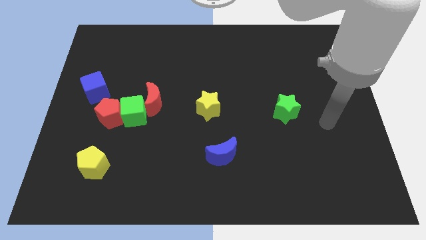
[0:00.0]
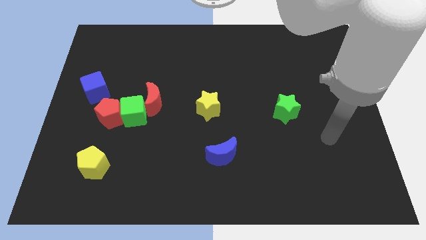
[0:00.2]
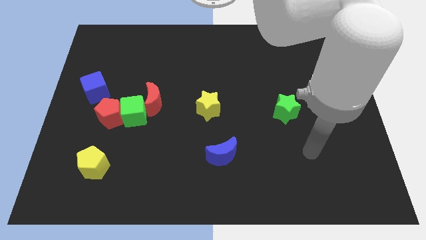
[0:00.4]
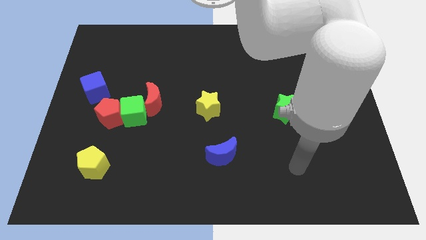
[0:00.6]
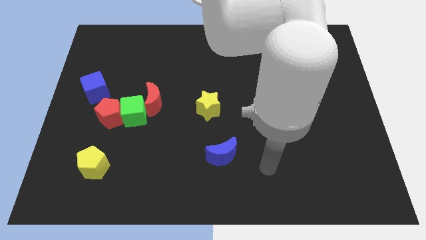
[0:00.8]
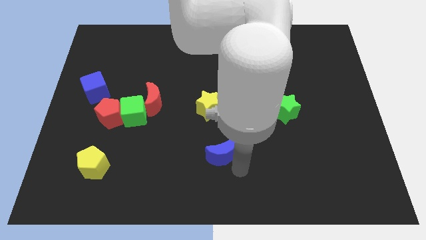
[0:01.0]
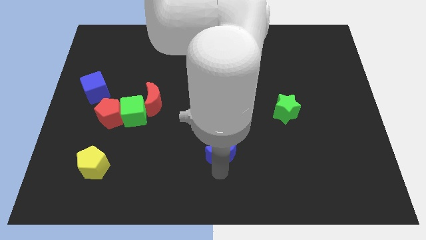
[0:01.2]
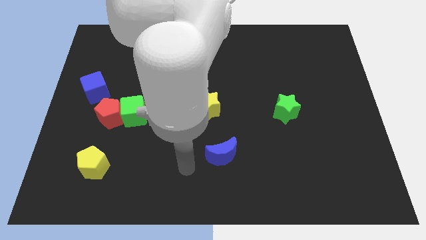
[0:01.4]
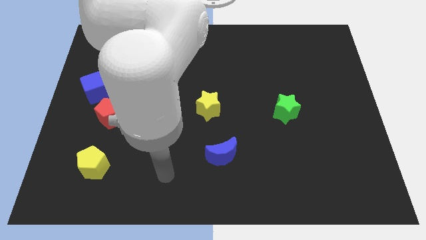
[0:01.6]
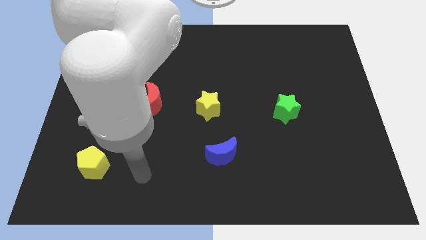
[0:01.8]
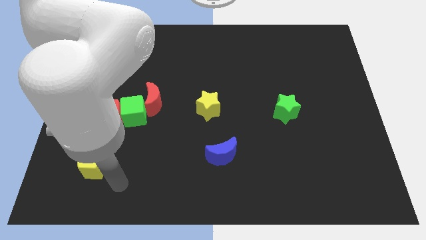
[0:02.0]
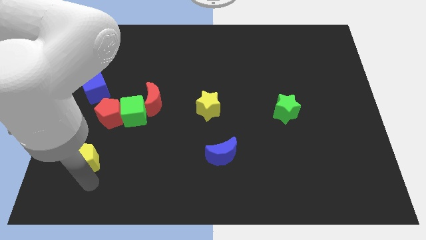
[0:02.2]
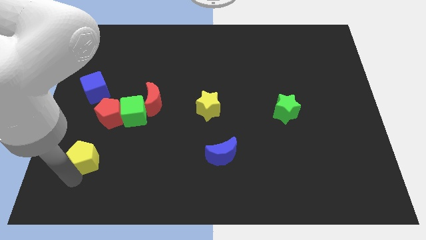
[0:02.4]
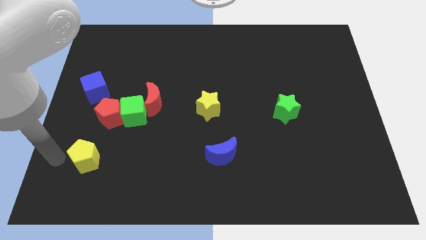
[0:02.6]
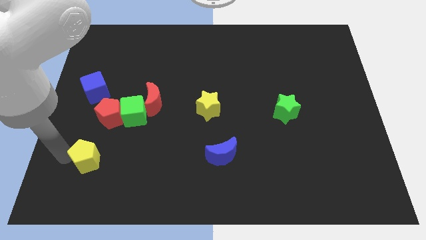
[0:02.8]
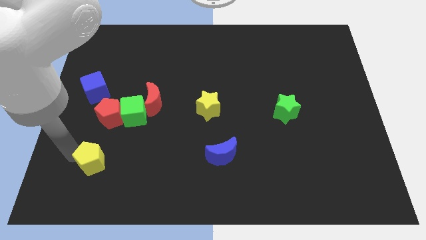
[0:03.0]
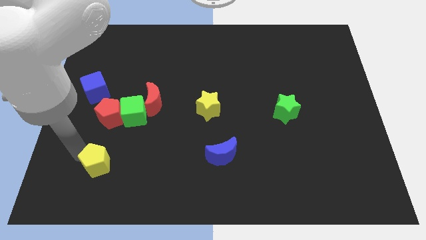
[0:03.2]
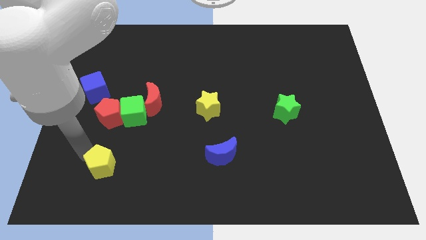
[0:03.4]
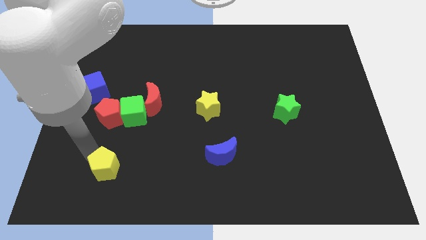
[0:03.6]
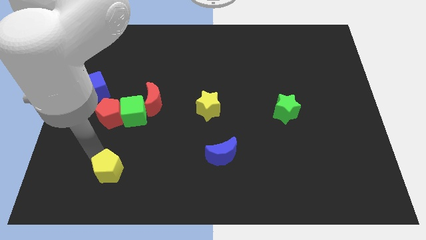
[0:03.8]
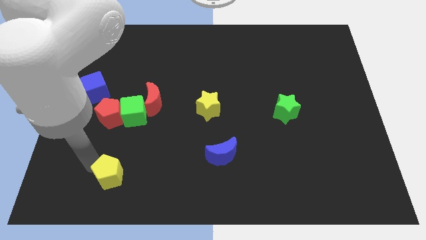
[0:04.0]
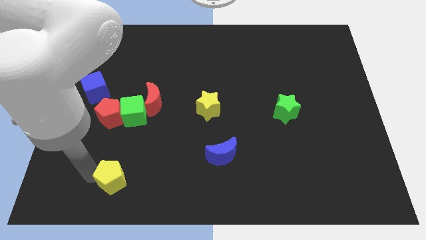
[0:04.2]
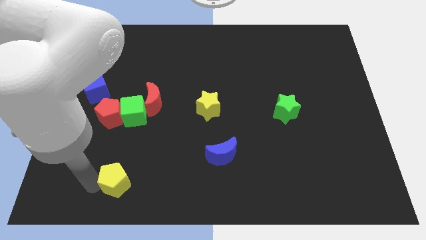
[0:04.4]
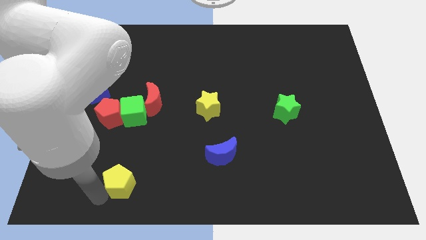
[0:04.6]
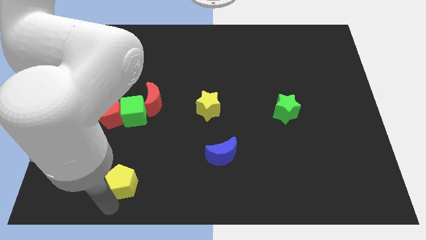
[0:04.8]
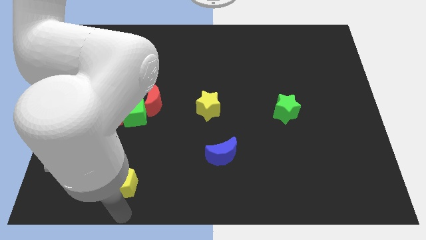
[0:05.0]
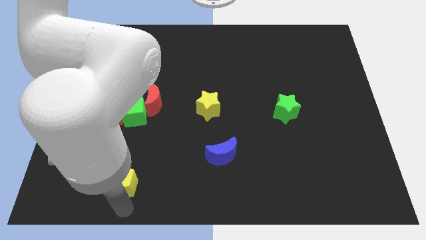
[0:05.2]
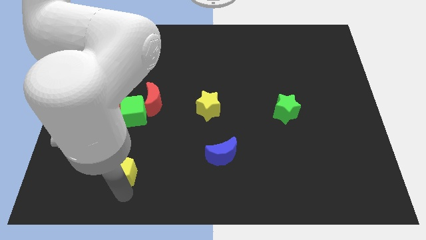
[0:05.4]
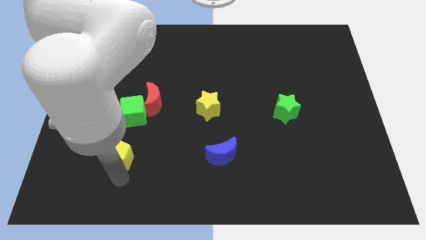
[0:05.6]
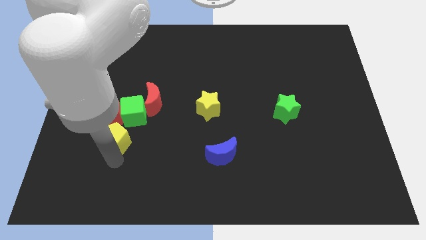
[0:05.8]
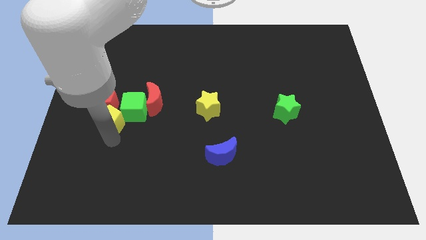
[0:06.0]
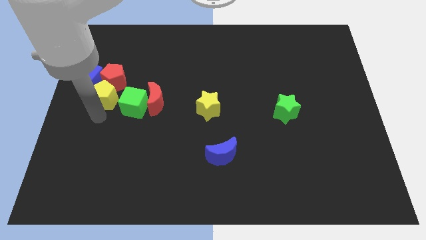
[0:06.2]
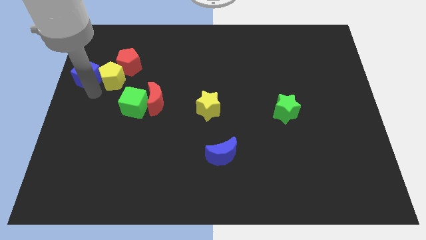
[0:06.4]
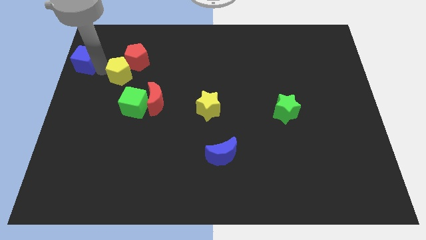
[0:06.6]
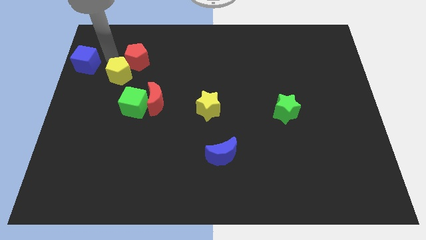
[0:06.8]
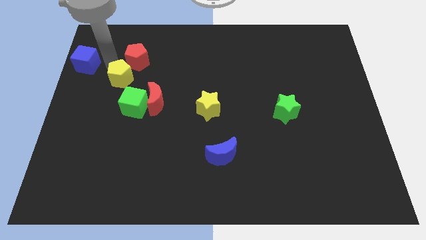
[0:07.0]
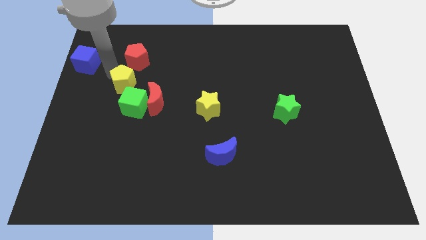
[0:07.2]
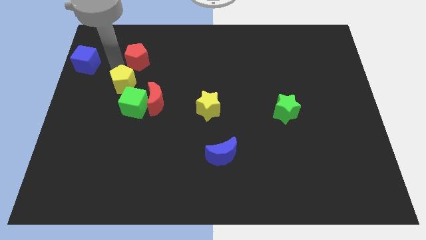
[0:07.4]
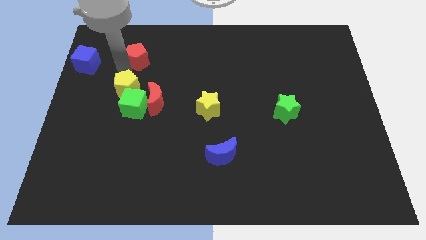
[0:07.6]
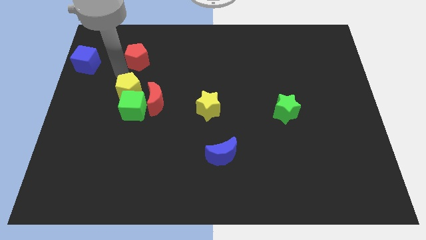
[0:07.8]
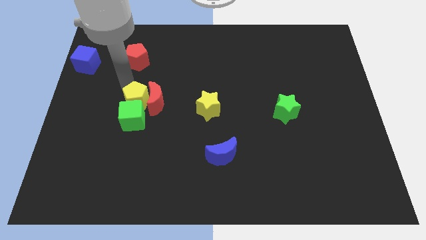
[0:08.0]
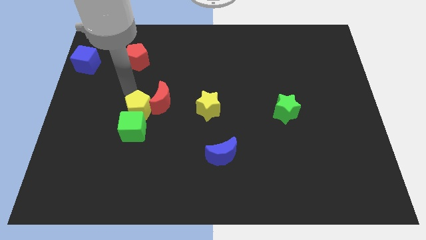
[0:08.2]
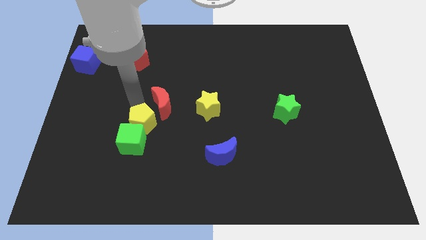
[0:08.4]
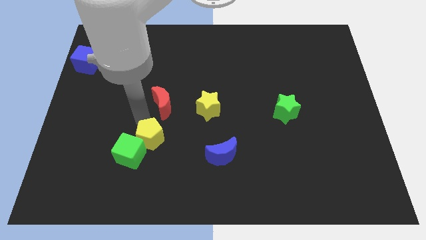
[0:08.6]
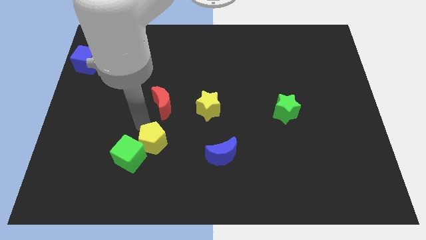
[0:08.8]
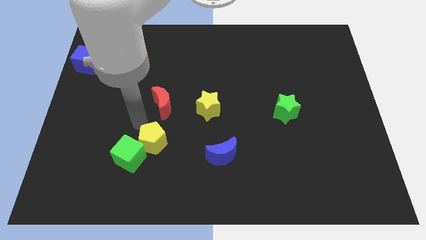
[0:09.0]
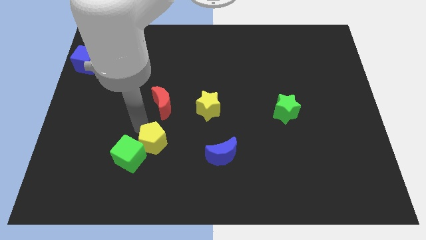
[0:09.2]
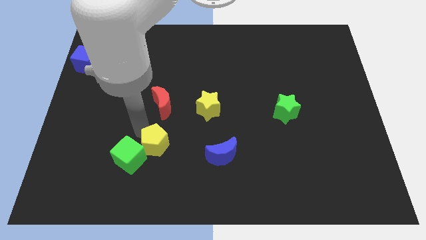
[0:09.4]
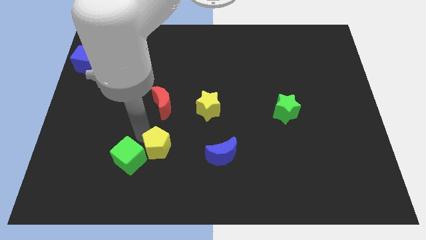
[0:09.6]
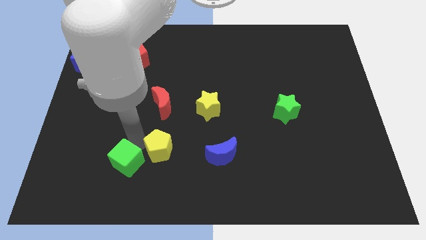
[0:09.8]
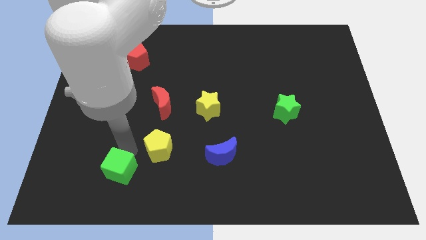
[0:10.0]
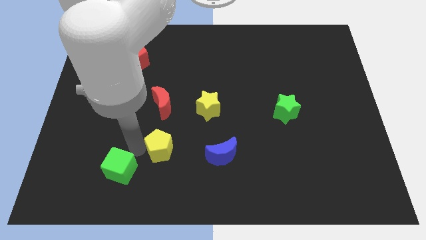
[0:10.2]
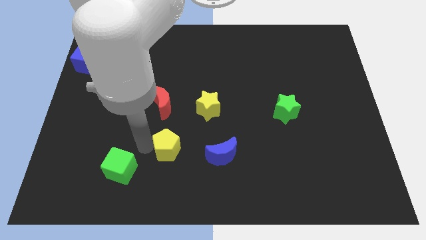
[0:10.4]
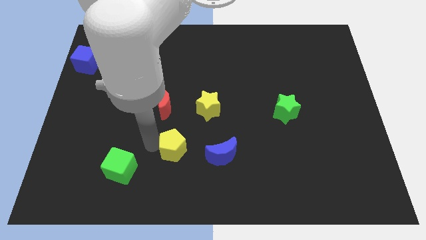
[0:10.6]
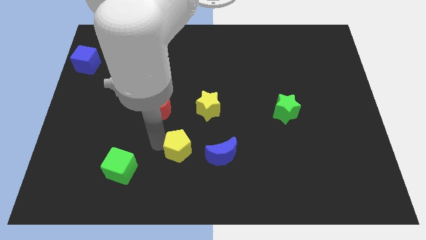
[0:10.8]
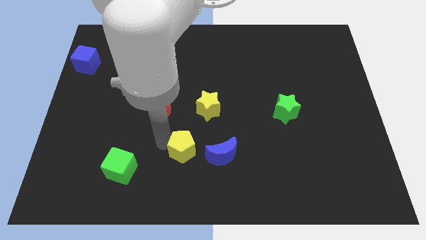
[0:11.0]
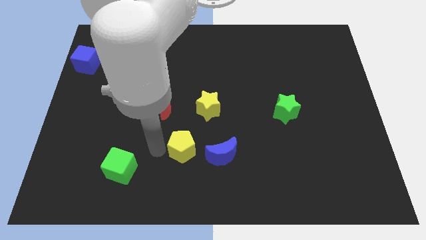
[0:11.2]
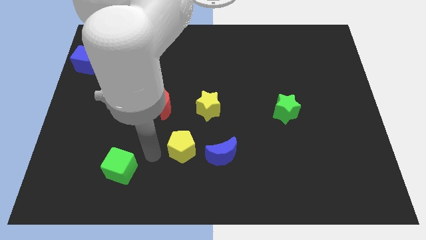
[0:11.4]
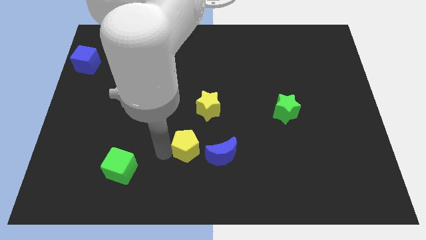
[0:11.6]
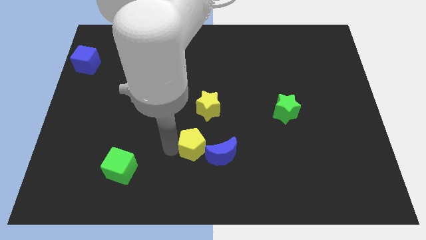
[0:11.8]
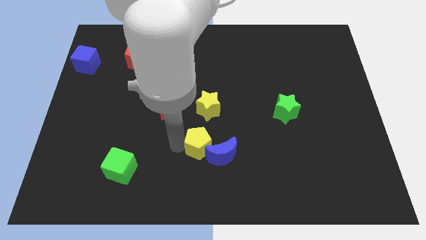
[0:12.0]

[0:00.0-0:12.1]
move the yellow pentagon to the blue moon

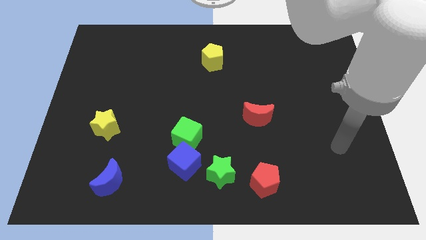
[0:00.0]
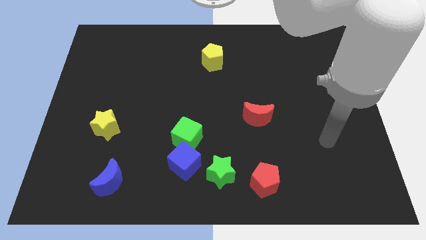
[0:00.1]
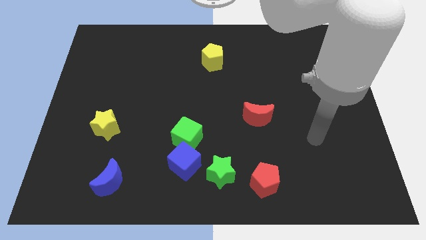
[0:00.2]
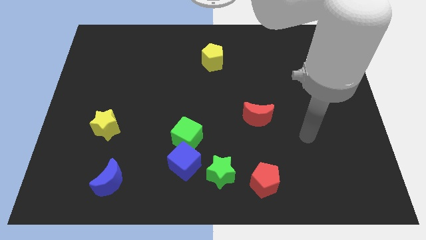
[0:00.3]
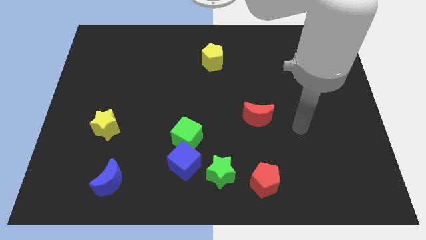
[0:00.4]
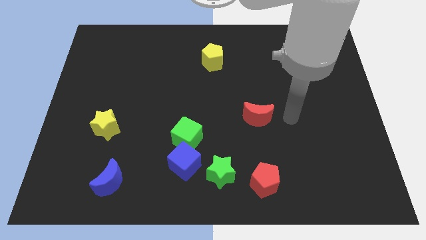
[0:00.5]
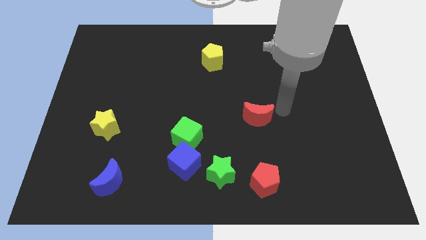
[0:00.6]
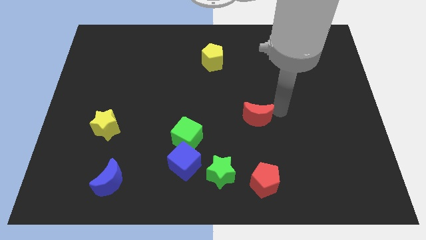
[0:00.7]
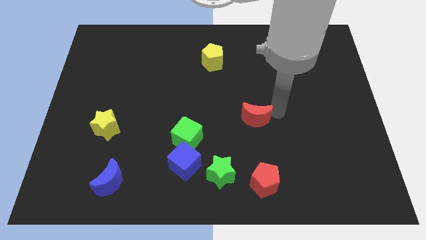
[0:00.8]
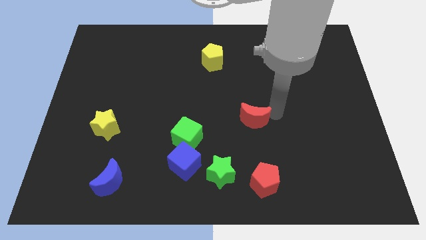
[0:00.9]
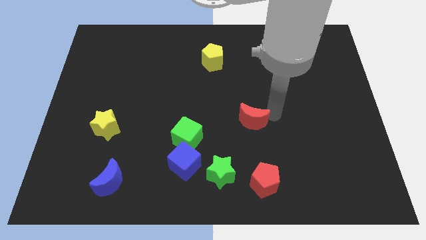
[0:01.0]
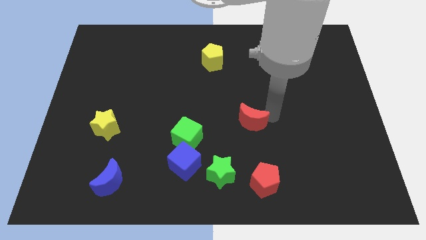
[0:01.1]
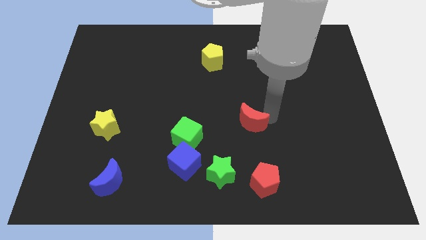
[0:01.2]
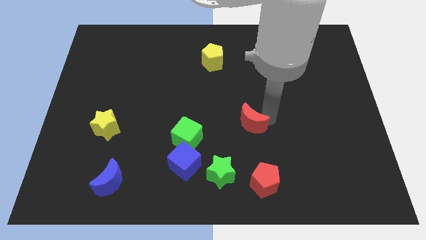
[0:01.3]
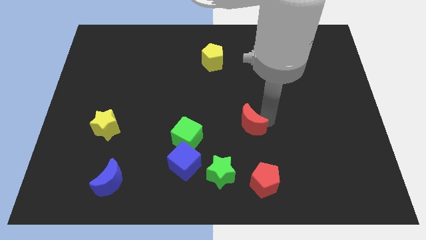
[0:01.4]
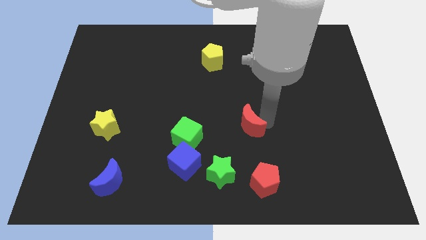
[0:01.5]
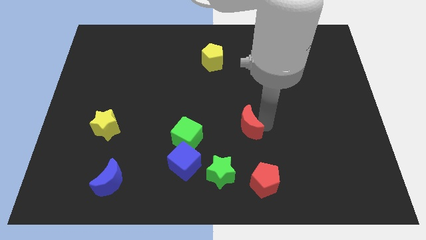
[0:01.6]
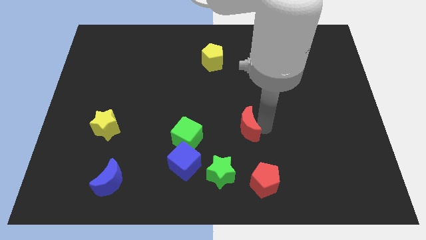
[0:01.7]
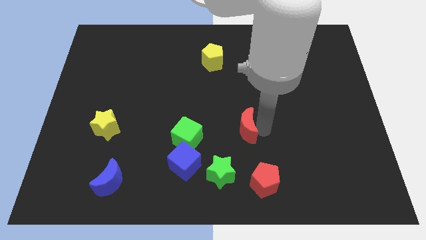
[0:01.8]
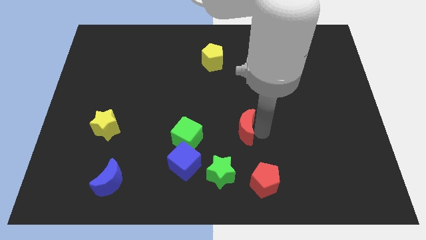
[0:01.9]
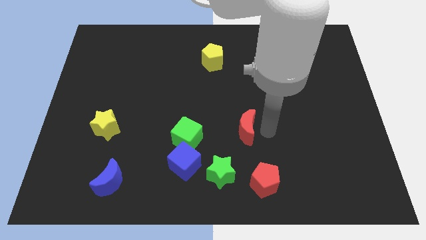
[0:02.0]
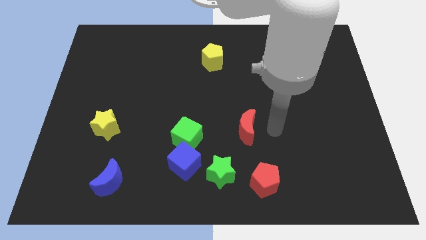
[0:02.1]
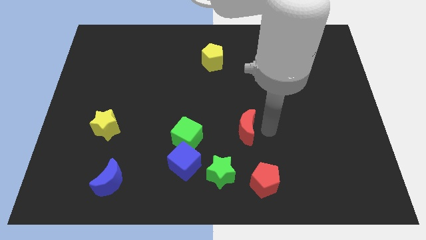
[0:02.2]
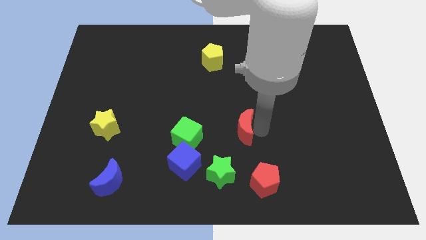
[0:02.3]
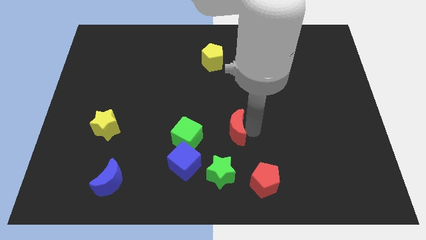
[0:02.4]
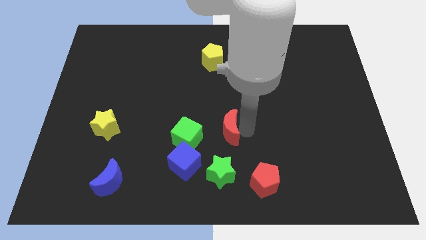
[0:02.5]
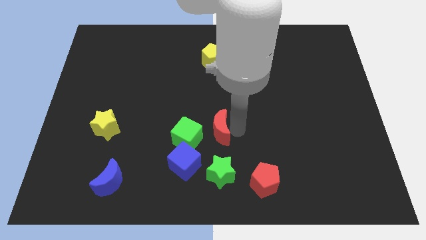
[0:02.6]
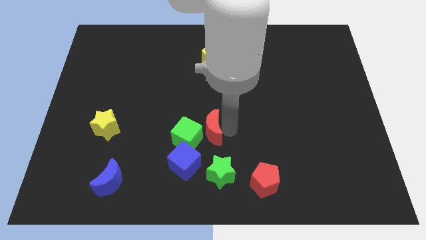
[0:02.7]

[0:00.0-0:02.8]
push the red moon to the green cube
